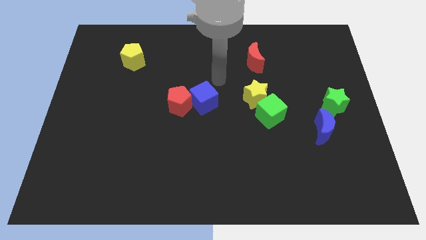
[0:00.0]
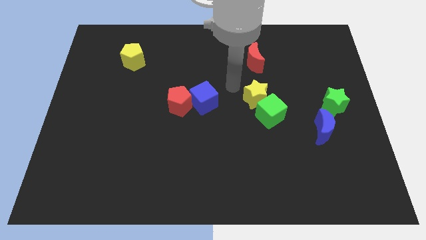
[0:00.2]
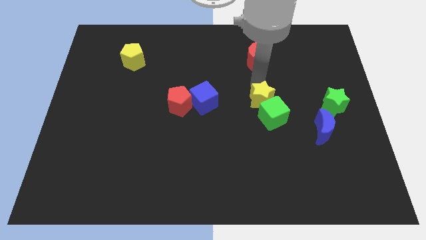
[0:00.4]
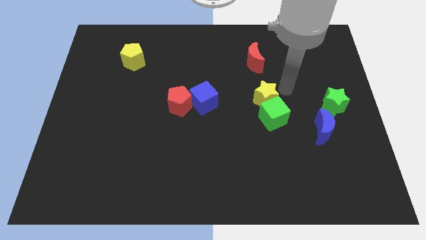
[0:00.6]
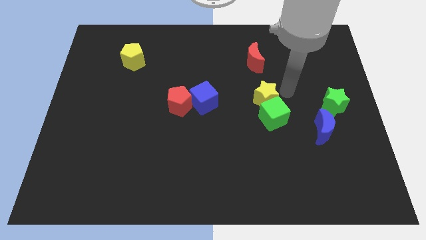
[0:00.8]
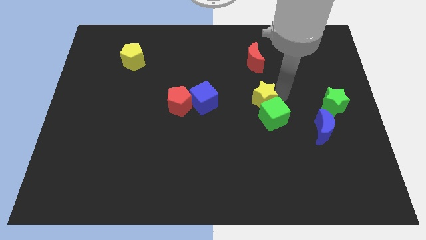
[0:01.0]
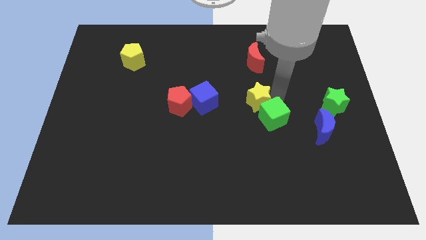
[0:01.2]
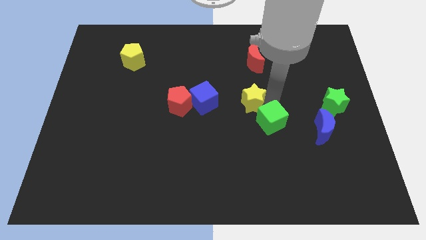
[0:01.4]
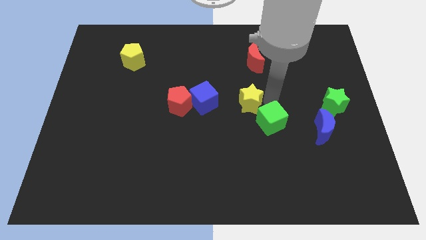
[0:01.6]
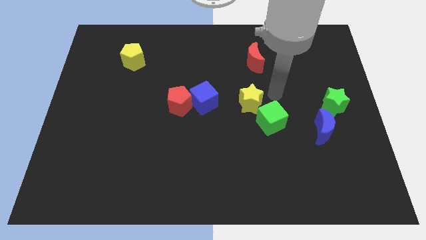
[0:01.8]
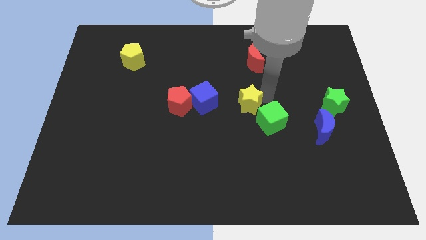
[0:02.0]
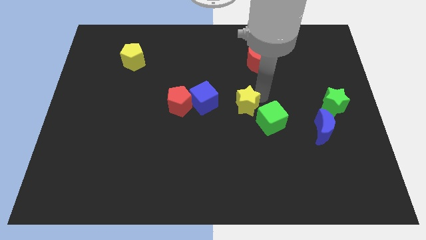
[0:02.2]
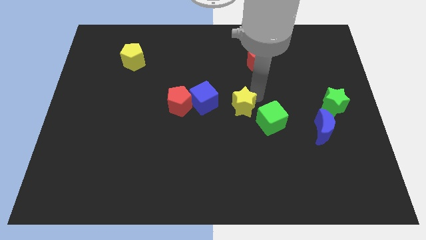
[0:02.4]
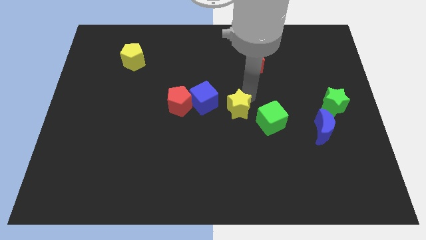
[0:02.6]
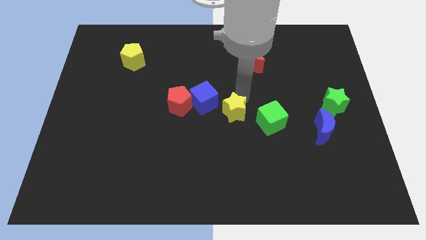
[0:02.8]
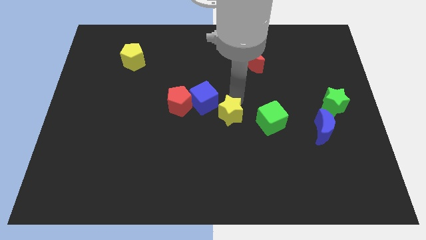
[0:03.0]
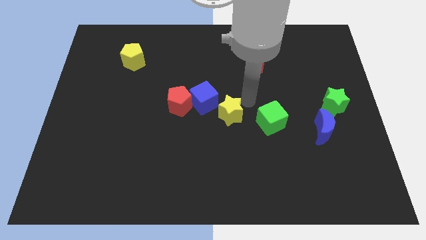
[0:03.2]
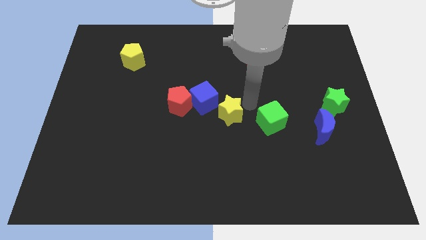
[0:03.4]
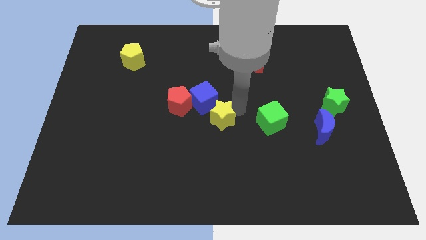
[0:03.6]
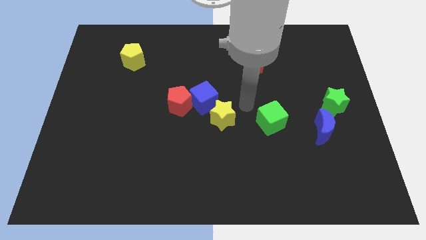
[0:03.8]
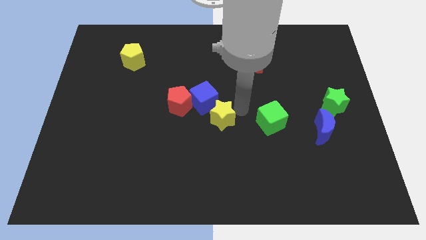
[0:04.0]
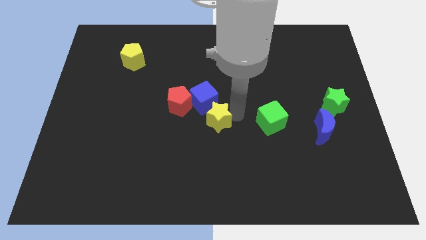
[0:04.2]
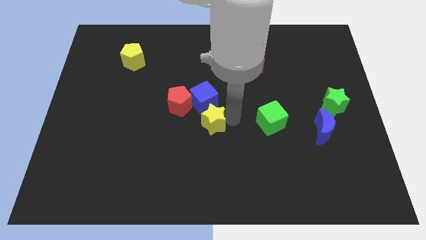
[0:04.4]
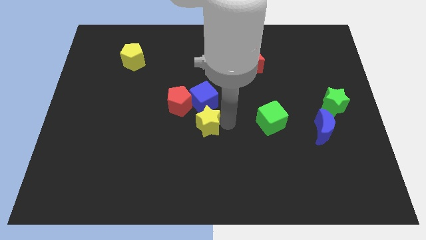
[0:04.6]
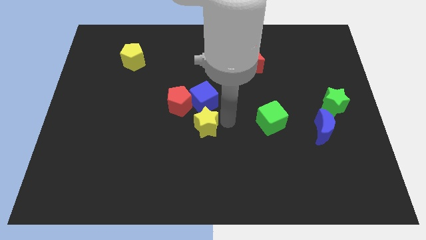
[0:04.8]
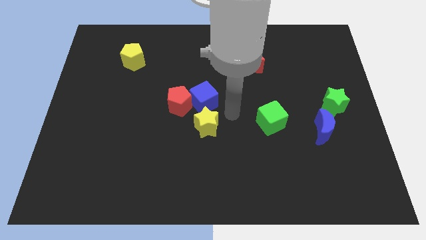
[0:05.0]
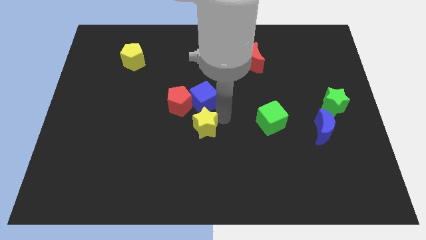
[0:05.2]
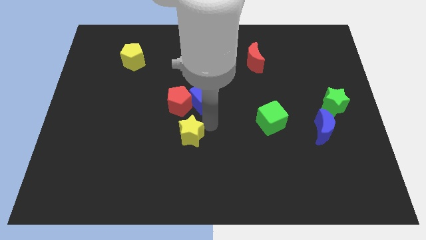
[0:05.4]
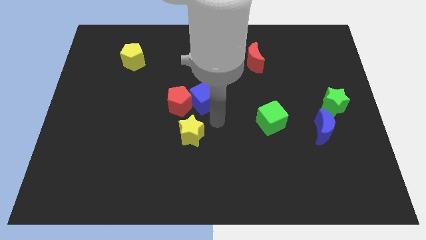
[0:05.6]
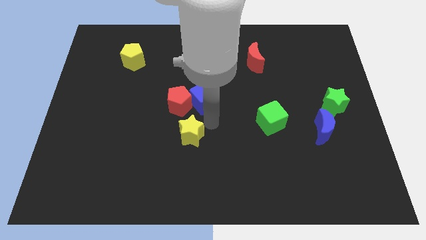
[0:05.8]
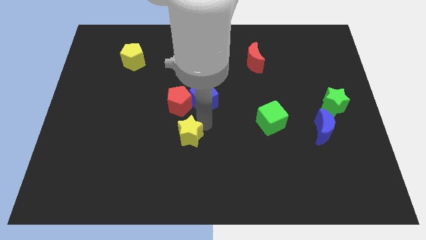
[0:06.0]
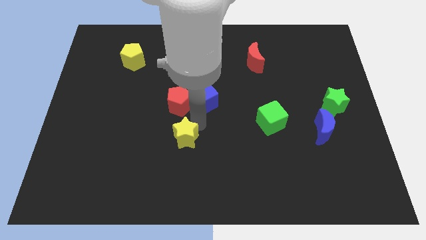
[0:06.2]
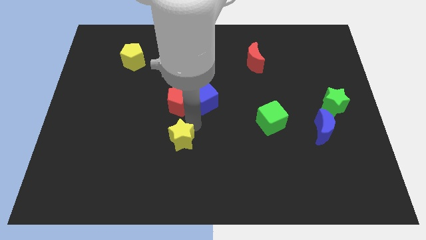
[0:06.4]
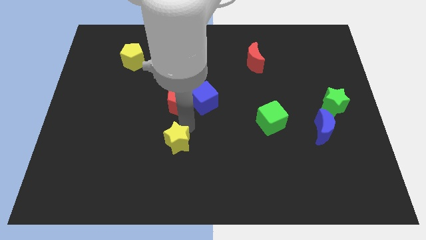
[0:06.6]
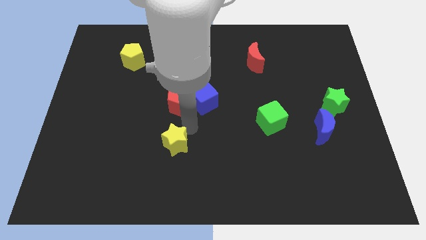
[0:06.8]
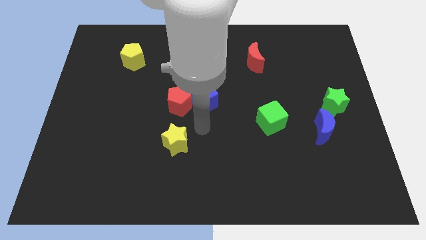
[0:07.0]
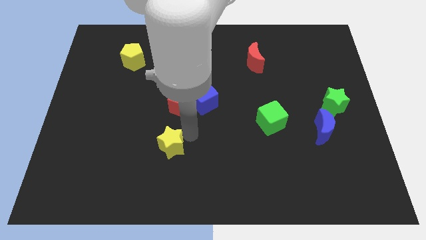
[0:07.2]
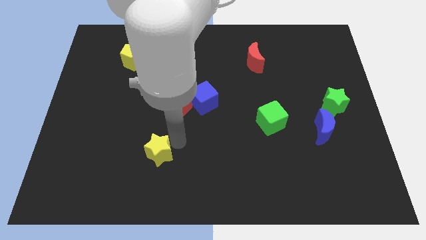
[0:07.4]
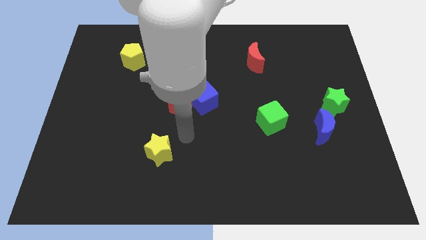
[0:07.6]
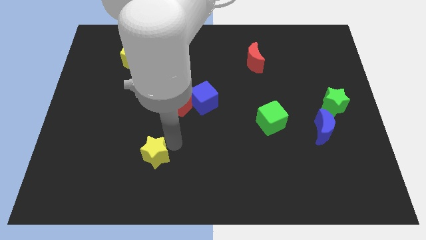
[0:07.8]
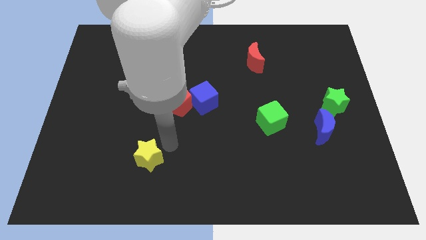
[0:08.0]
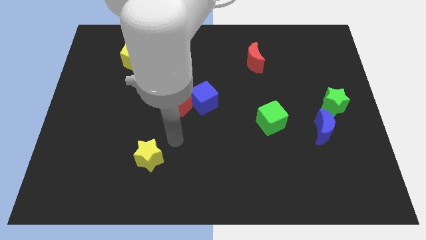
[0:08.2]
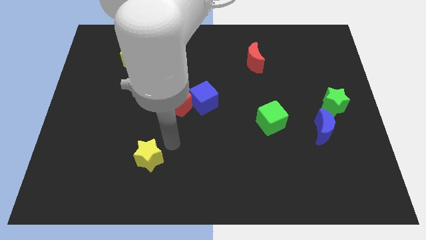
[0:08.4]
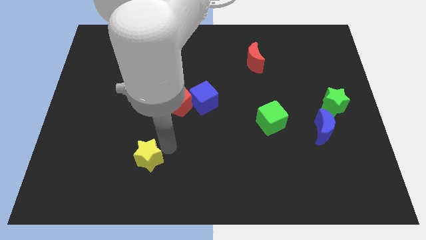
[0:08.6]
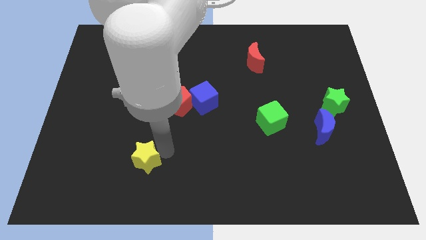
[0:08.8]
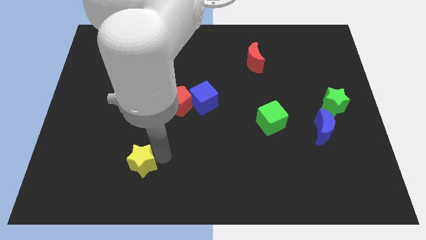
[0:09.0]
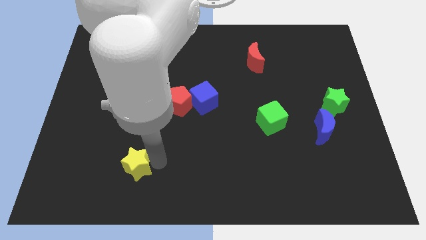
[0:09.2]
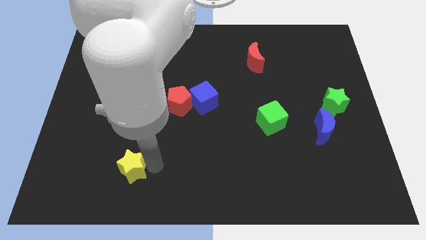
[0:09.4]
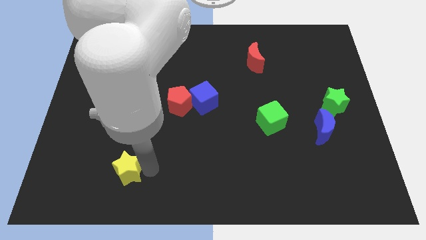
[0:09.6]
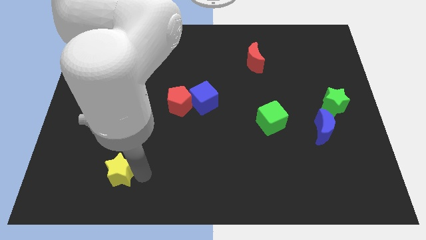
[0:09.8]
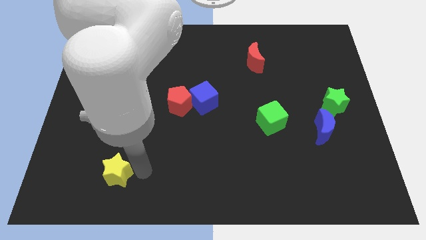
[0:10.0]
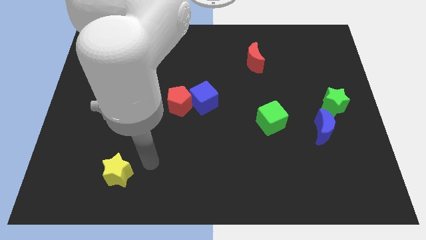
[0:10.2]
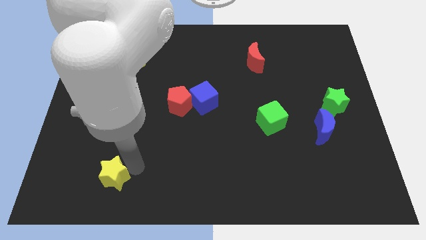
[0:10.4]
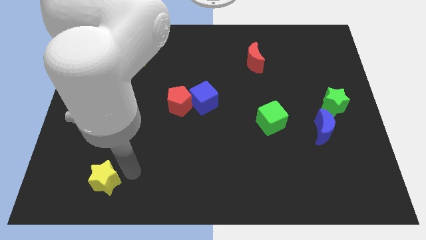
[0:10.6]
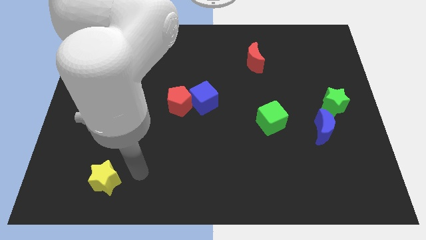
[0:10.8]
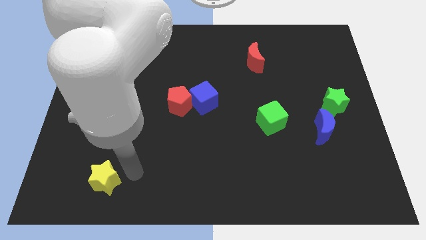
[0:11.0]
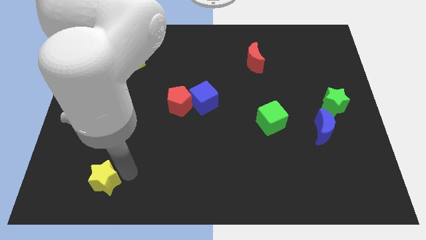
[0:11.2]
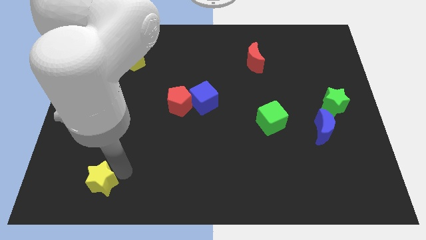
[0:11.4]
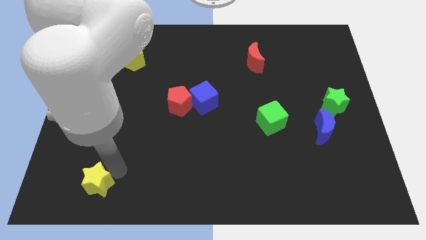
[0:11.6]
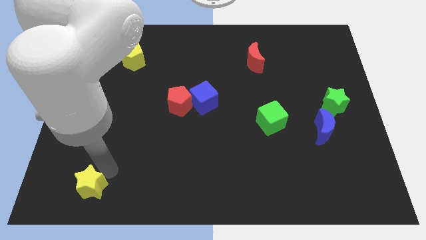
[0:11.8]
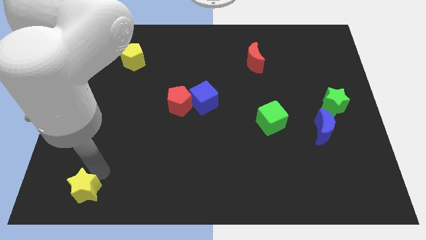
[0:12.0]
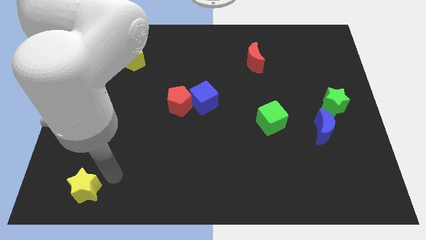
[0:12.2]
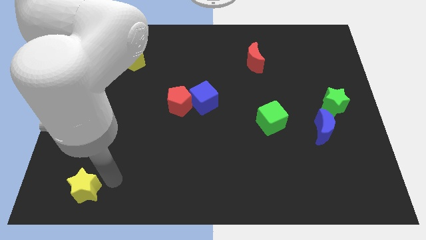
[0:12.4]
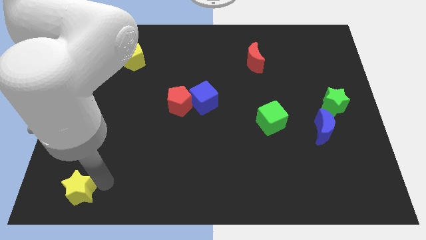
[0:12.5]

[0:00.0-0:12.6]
slide the yellow star to the bottom left
